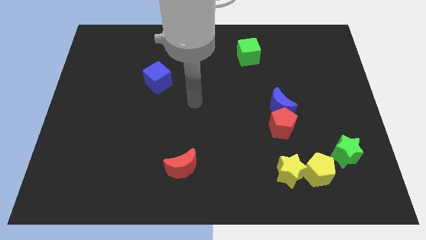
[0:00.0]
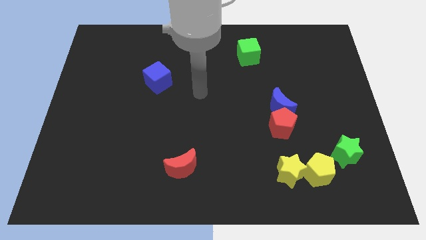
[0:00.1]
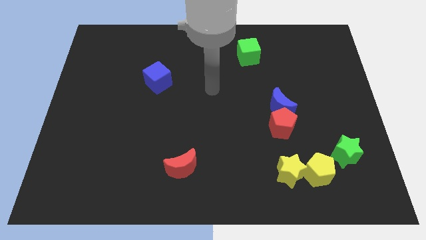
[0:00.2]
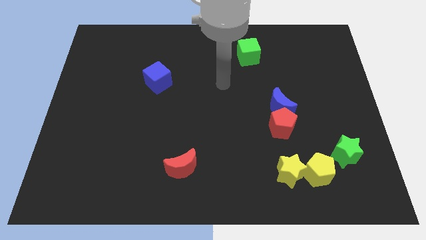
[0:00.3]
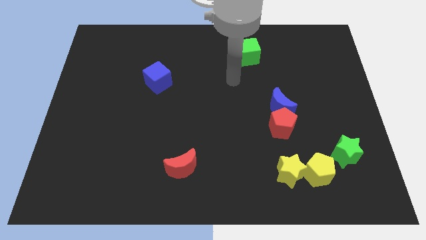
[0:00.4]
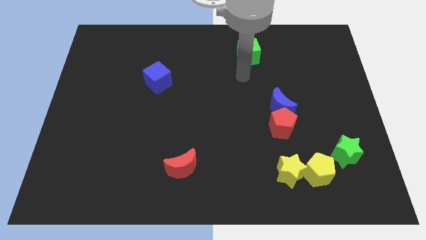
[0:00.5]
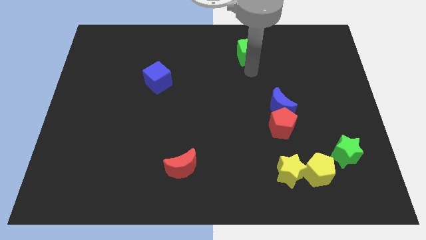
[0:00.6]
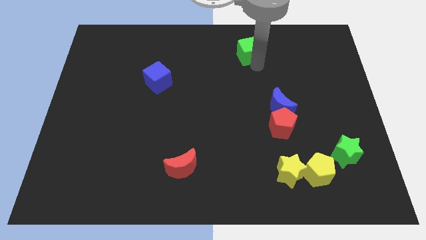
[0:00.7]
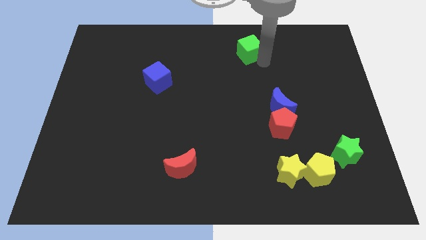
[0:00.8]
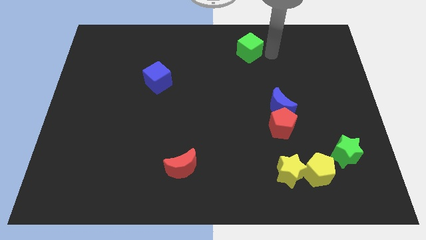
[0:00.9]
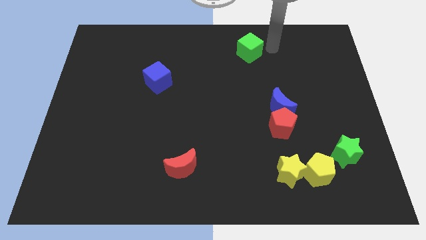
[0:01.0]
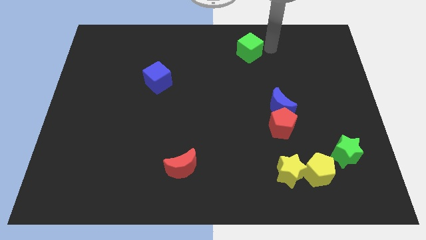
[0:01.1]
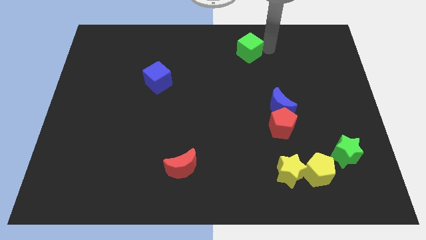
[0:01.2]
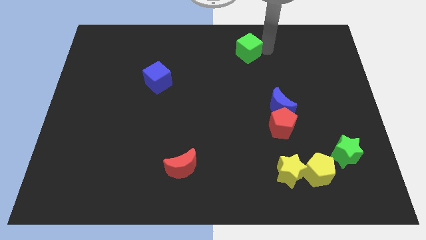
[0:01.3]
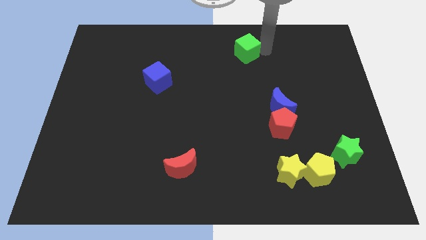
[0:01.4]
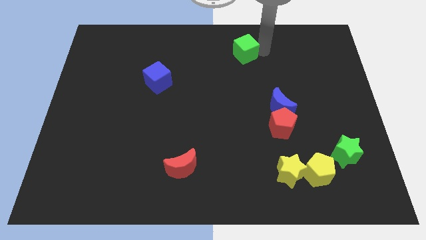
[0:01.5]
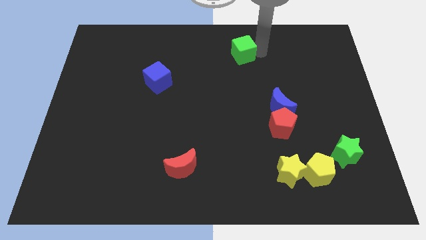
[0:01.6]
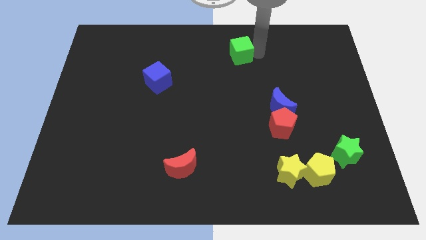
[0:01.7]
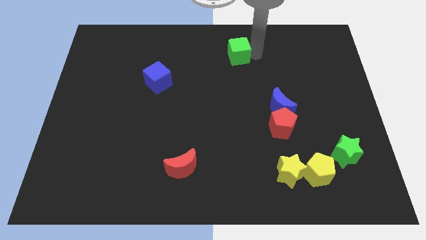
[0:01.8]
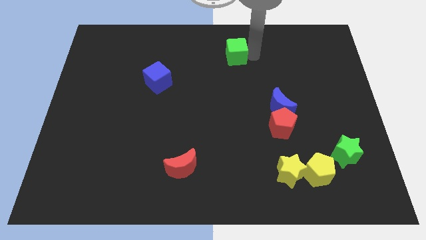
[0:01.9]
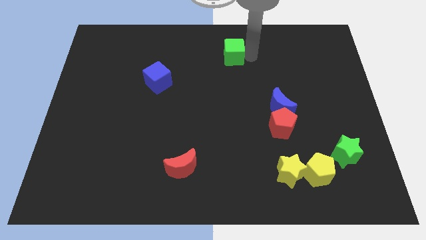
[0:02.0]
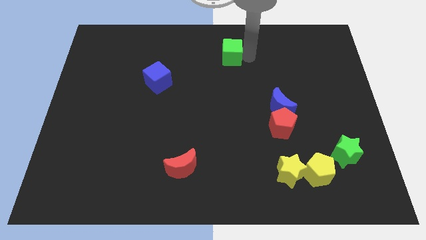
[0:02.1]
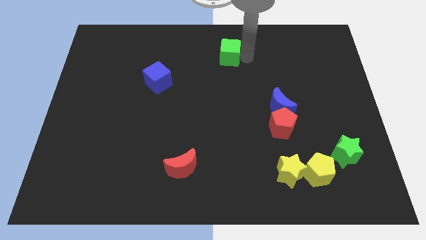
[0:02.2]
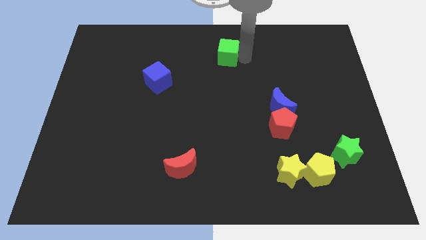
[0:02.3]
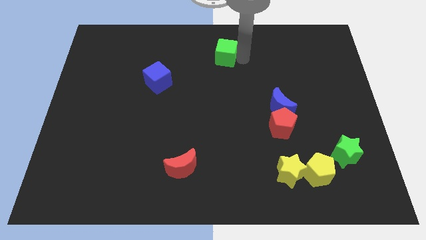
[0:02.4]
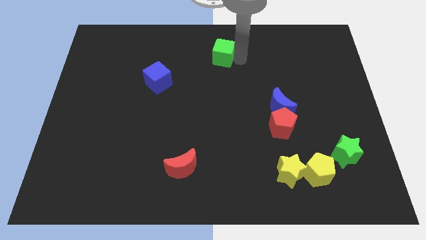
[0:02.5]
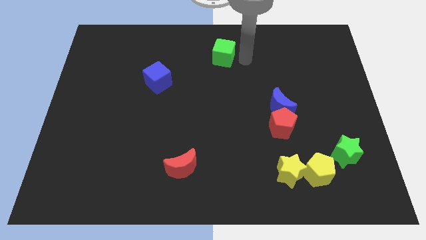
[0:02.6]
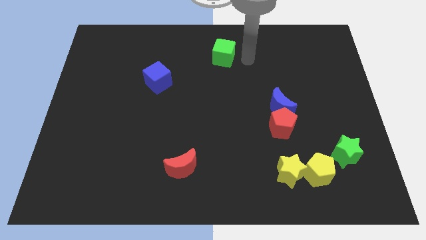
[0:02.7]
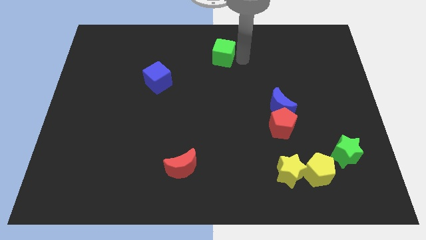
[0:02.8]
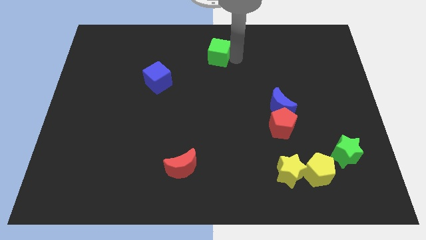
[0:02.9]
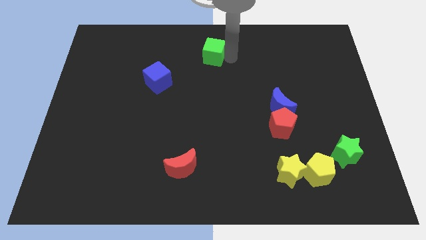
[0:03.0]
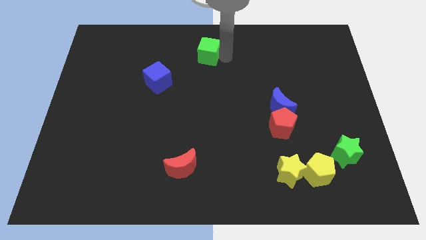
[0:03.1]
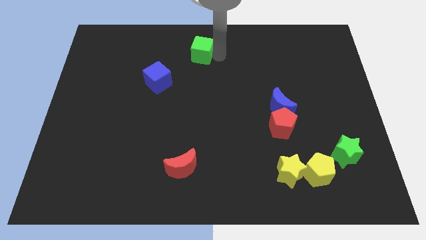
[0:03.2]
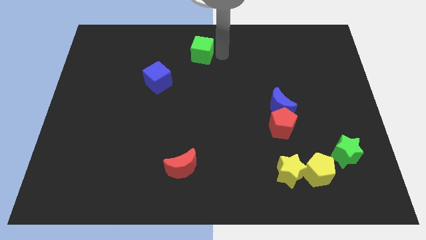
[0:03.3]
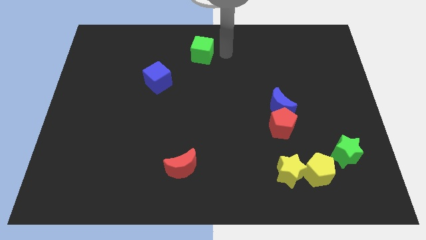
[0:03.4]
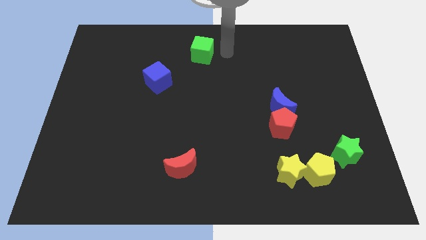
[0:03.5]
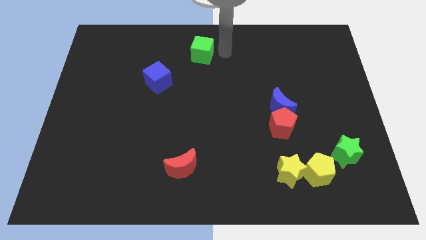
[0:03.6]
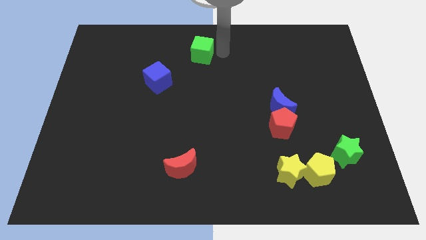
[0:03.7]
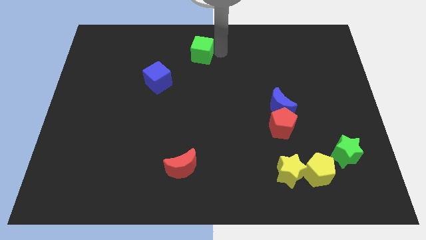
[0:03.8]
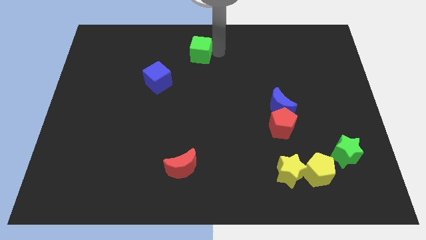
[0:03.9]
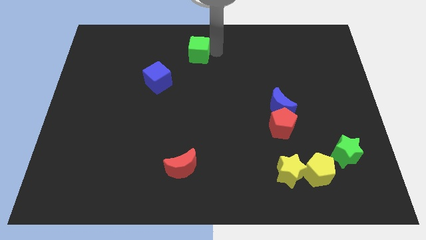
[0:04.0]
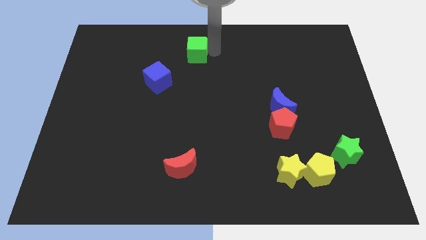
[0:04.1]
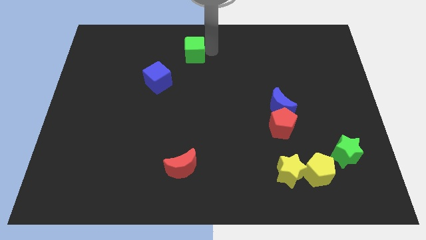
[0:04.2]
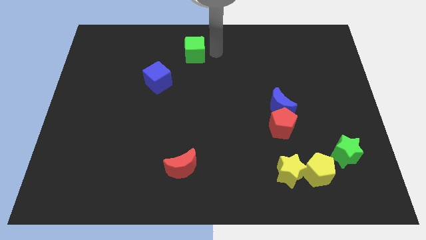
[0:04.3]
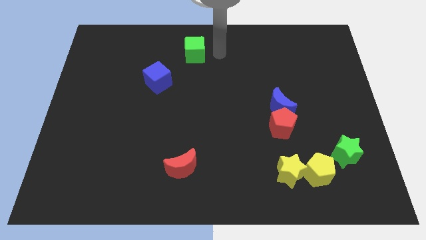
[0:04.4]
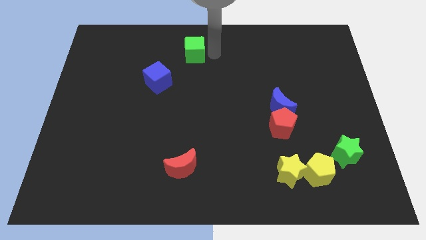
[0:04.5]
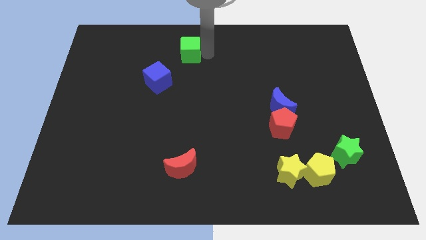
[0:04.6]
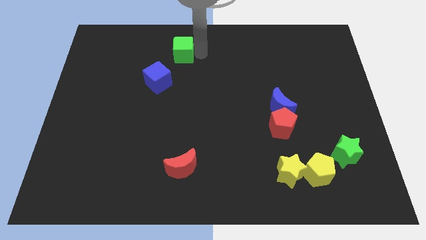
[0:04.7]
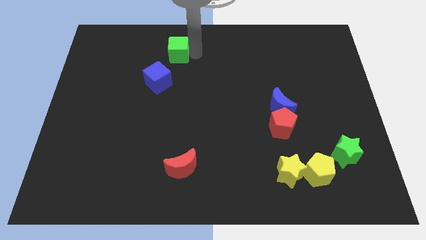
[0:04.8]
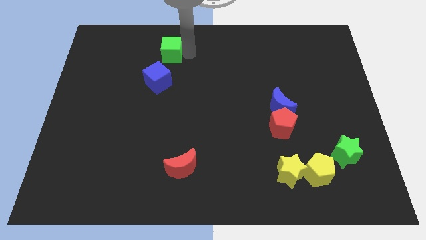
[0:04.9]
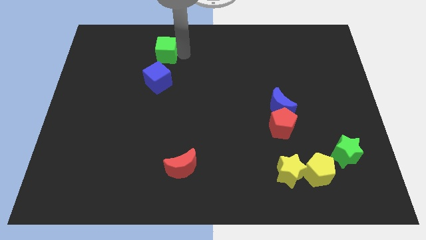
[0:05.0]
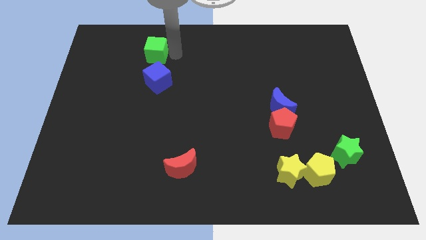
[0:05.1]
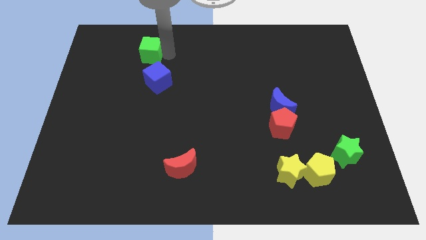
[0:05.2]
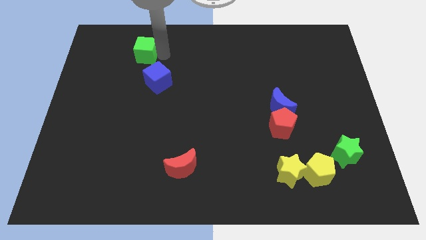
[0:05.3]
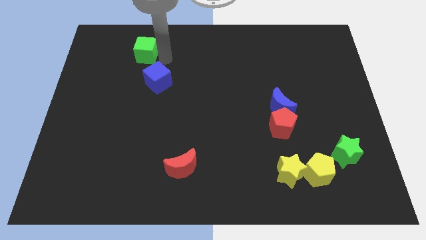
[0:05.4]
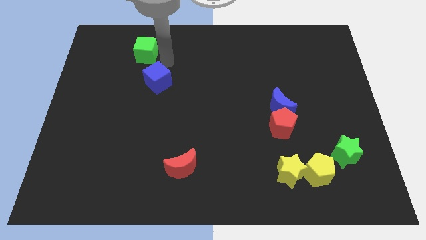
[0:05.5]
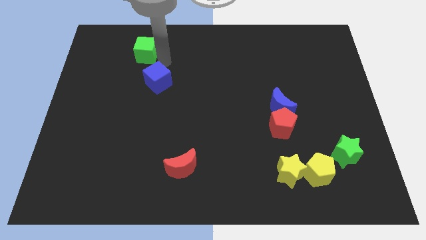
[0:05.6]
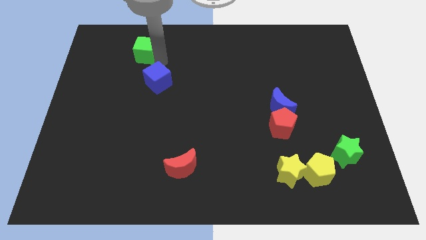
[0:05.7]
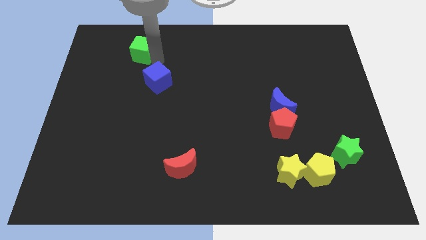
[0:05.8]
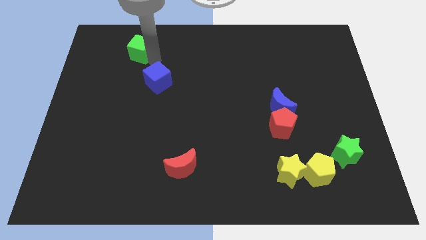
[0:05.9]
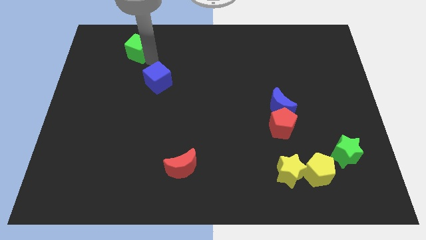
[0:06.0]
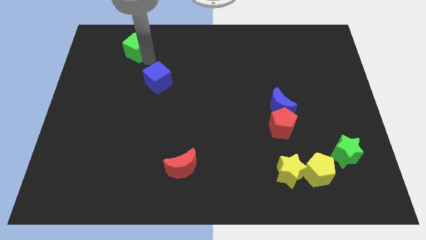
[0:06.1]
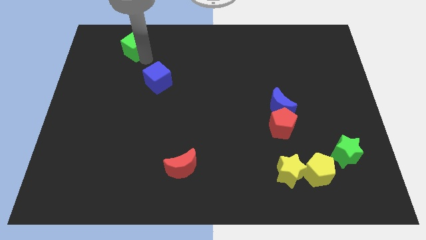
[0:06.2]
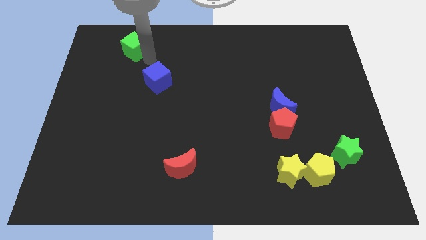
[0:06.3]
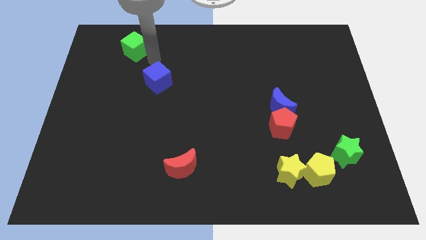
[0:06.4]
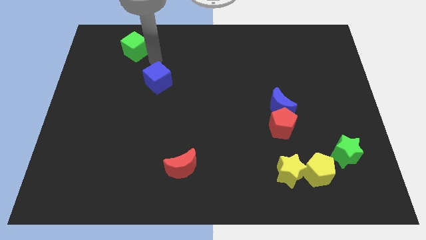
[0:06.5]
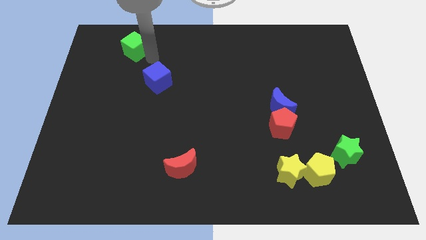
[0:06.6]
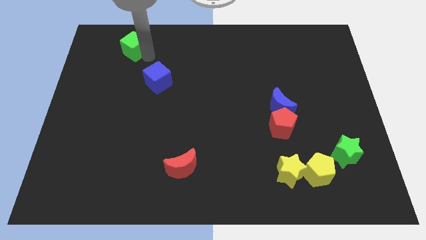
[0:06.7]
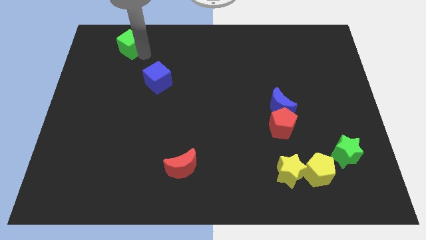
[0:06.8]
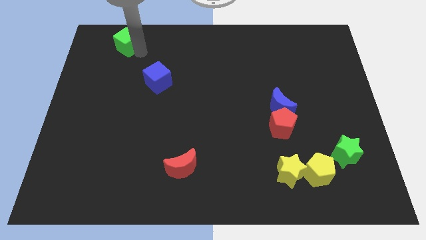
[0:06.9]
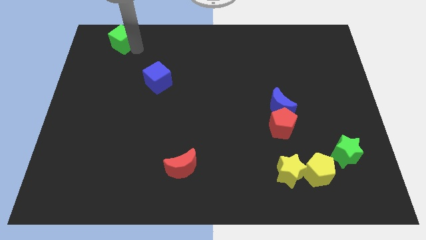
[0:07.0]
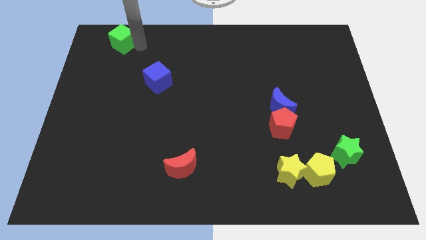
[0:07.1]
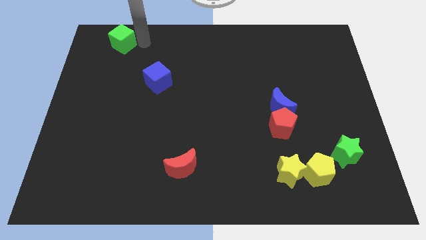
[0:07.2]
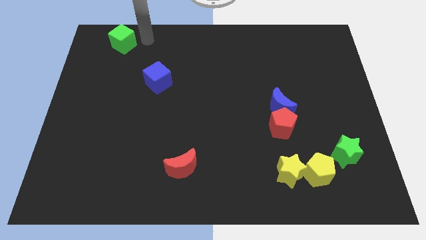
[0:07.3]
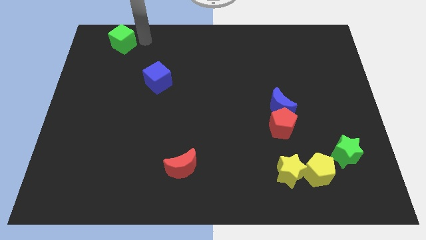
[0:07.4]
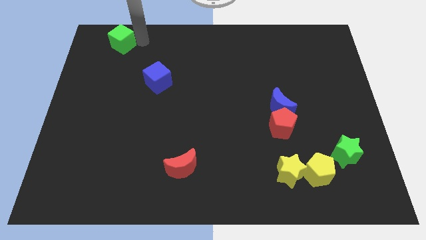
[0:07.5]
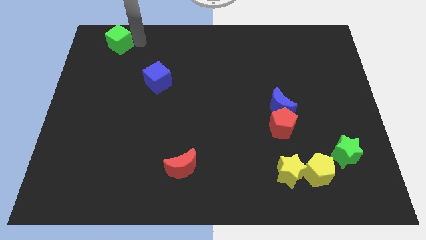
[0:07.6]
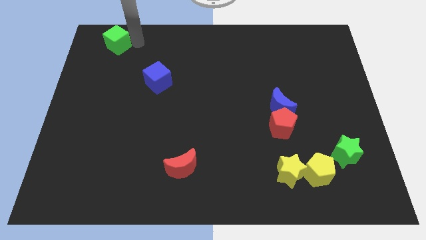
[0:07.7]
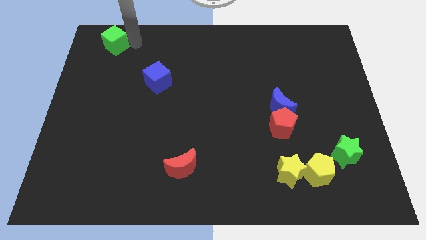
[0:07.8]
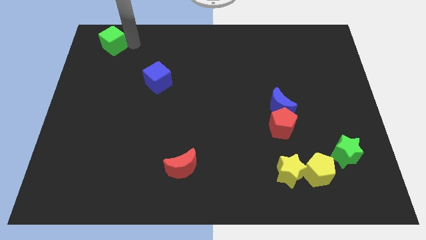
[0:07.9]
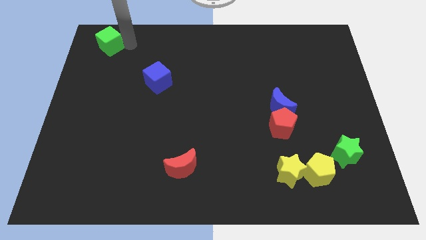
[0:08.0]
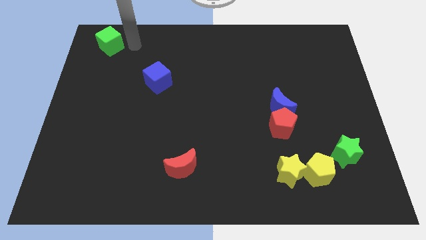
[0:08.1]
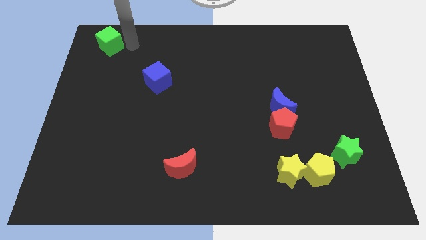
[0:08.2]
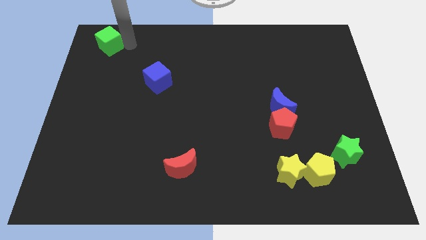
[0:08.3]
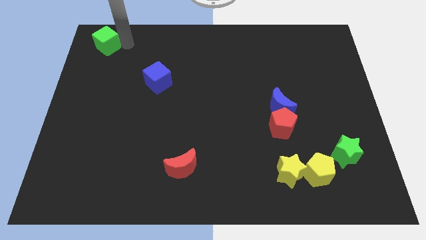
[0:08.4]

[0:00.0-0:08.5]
put the green cube to the upper left corner
